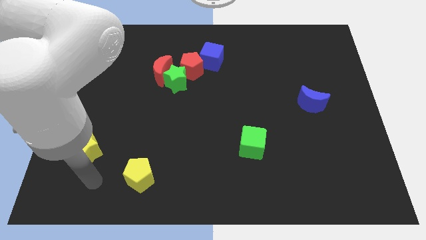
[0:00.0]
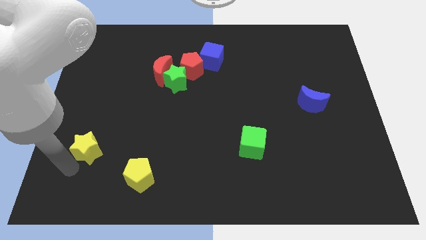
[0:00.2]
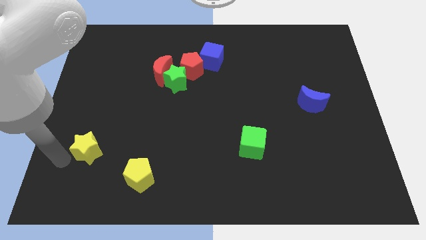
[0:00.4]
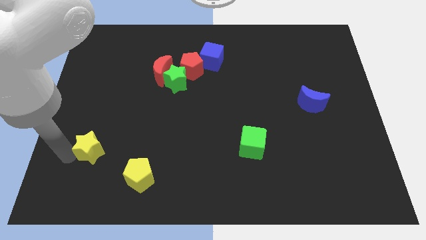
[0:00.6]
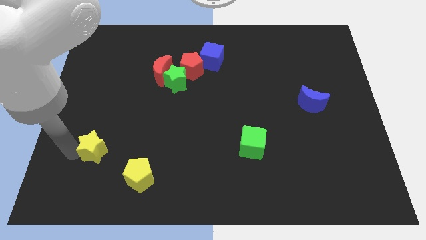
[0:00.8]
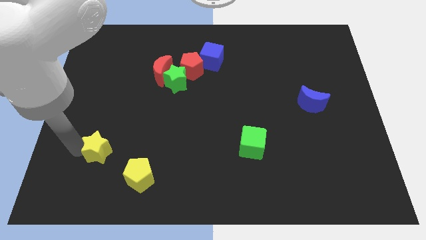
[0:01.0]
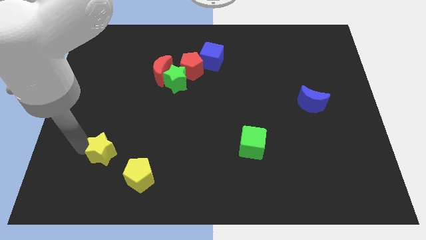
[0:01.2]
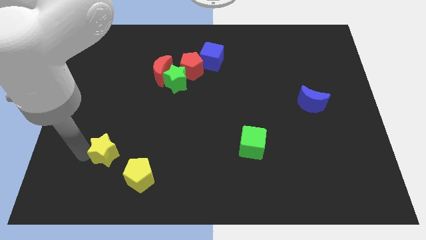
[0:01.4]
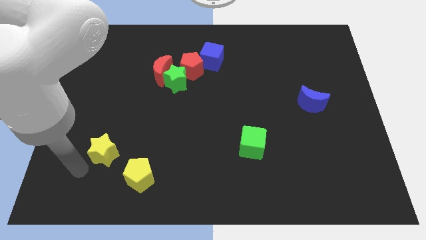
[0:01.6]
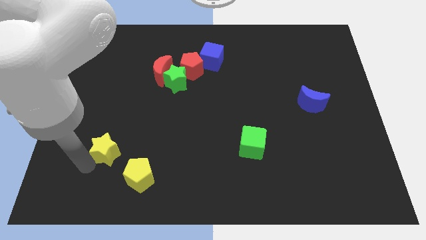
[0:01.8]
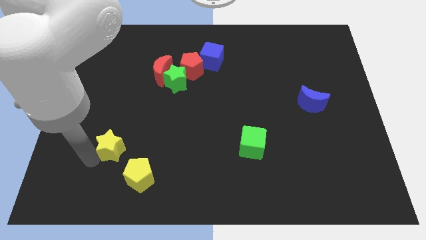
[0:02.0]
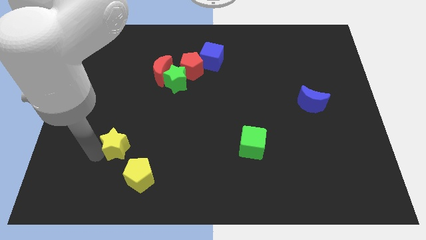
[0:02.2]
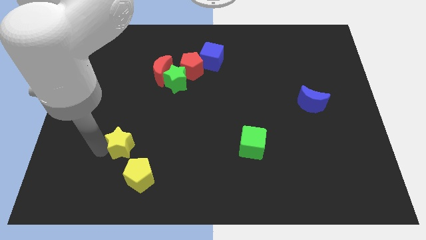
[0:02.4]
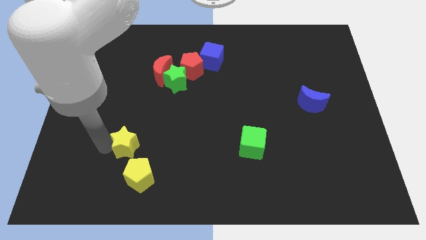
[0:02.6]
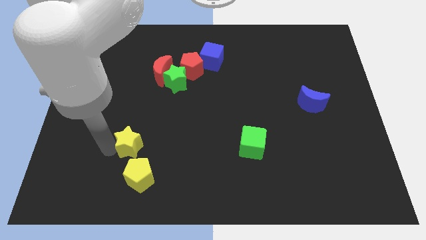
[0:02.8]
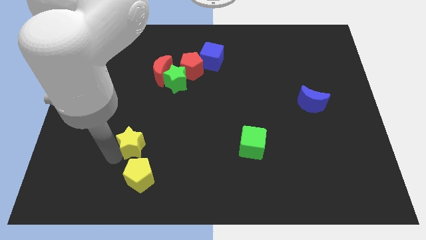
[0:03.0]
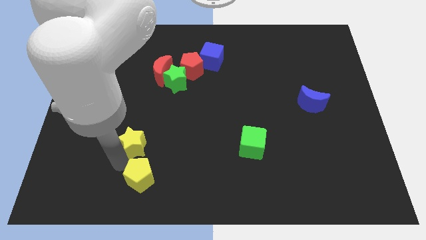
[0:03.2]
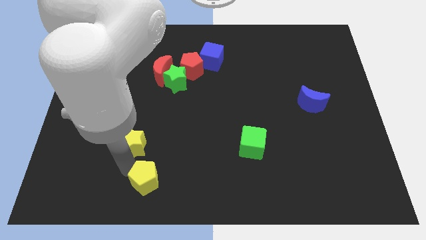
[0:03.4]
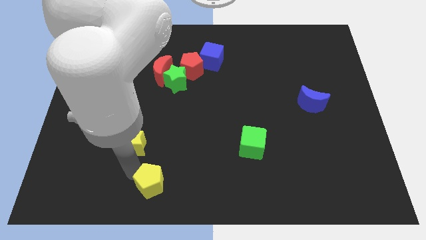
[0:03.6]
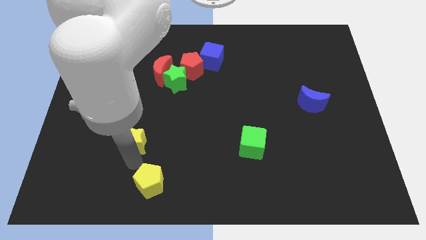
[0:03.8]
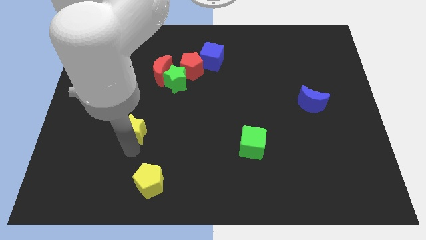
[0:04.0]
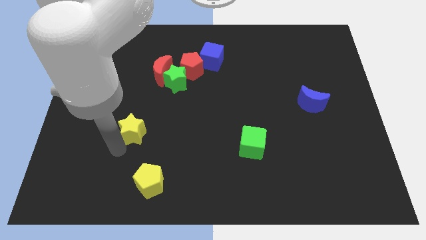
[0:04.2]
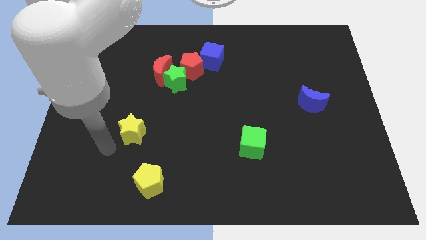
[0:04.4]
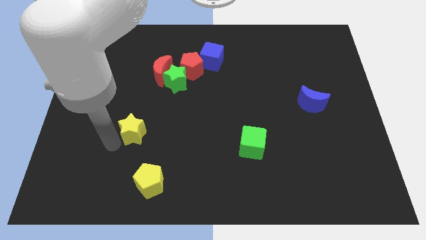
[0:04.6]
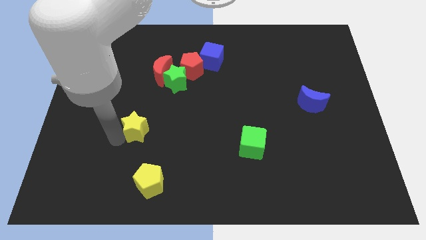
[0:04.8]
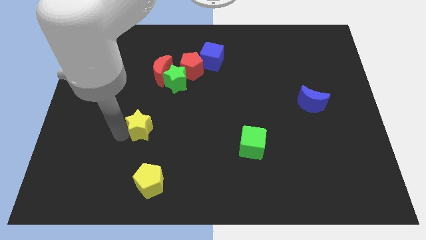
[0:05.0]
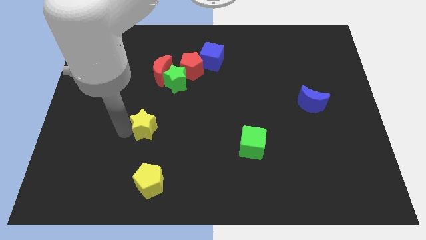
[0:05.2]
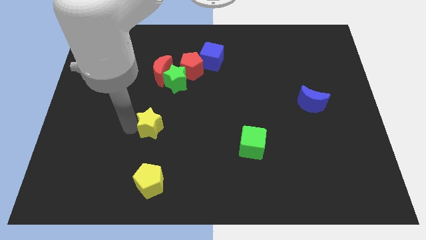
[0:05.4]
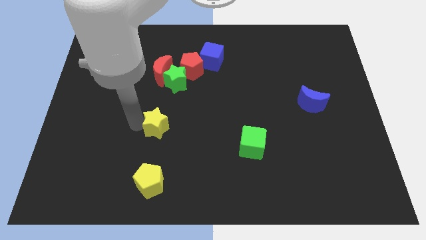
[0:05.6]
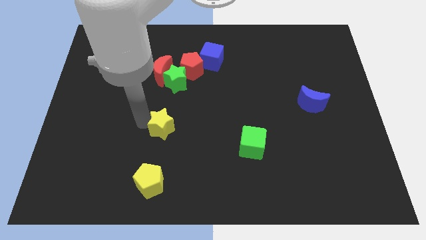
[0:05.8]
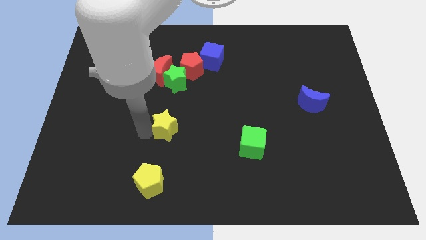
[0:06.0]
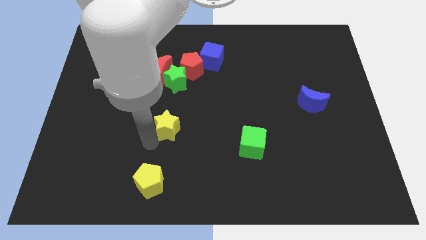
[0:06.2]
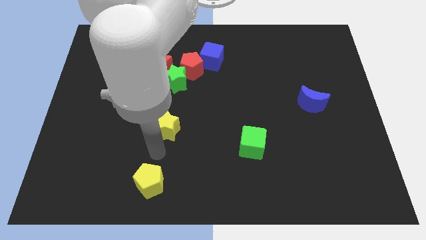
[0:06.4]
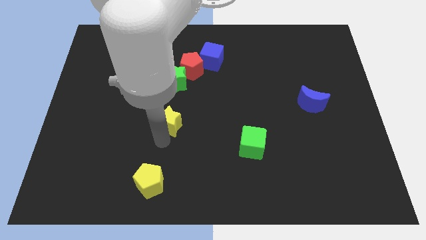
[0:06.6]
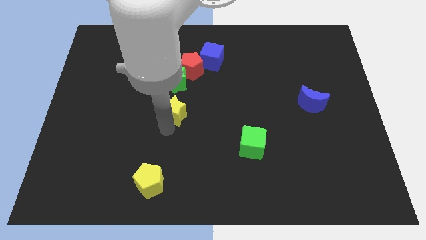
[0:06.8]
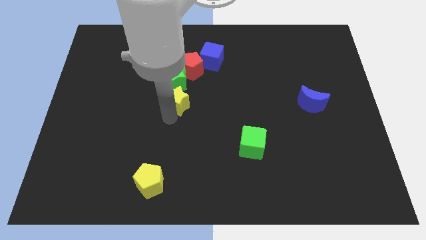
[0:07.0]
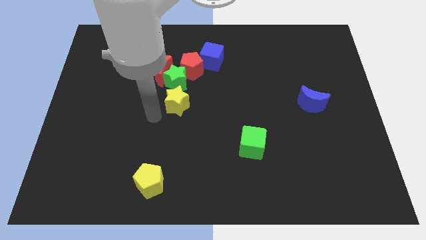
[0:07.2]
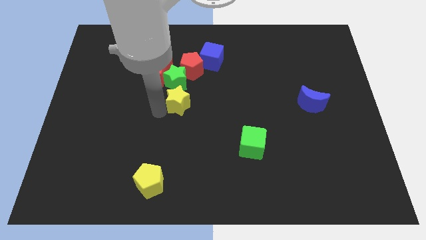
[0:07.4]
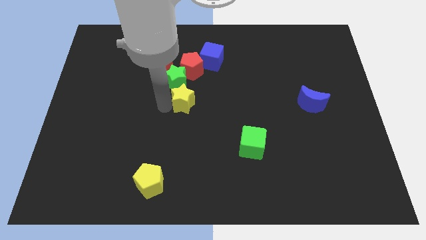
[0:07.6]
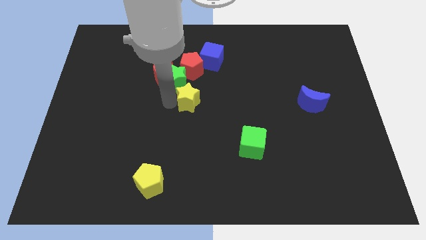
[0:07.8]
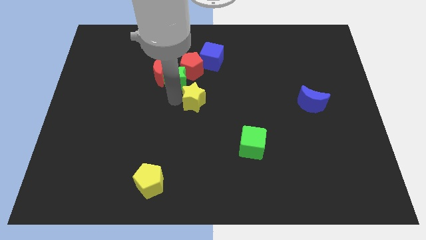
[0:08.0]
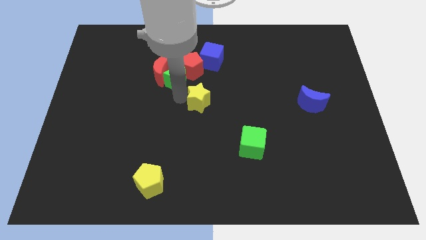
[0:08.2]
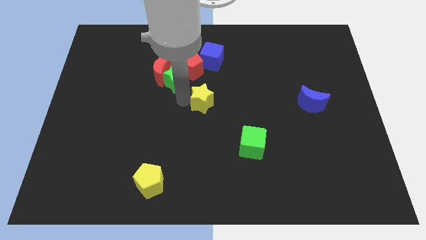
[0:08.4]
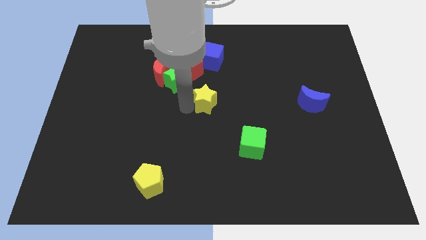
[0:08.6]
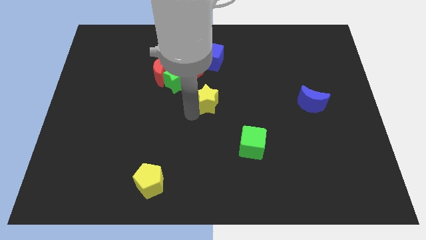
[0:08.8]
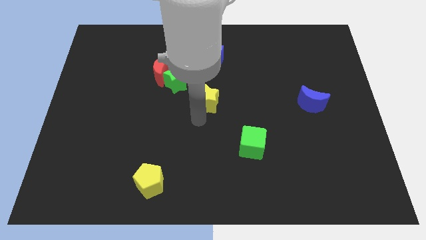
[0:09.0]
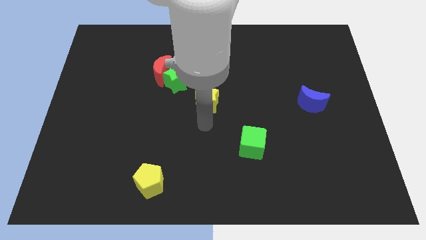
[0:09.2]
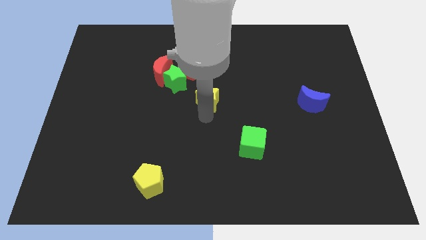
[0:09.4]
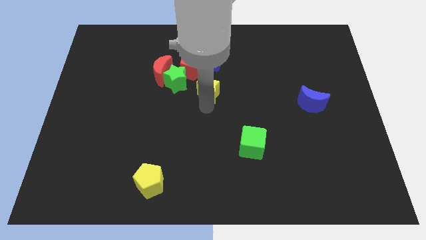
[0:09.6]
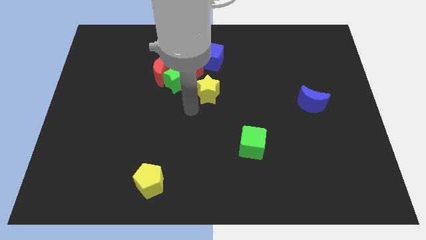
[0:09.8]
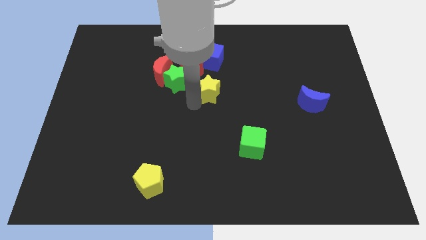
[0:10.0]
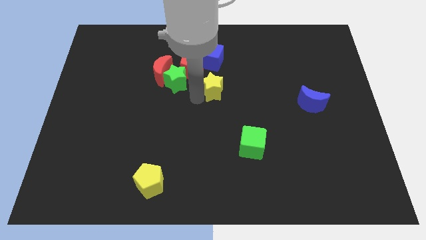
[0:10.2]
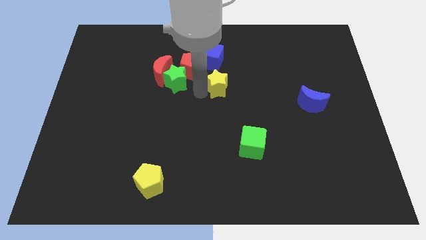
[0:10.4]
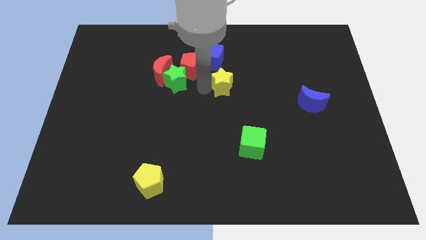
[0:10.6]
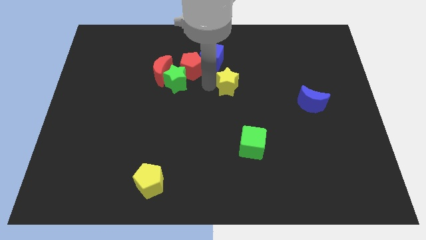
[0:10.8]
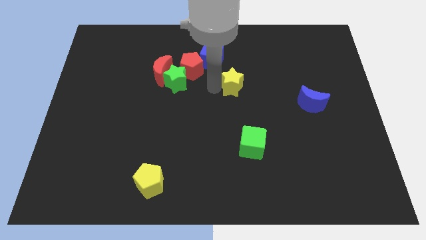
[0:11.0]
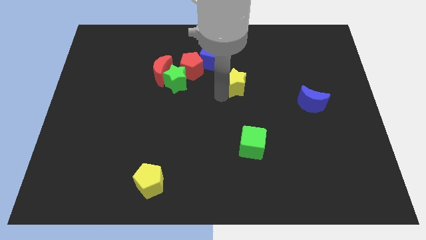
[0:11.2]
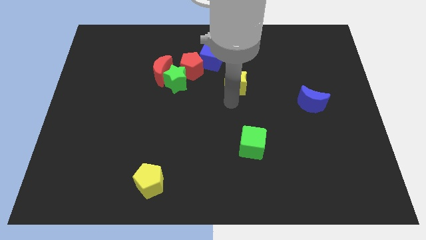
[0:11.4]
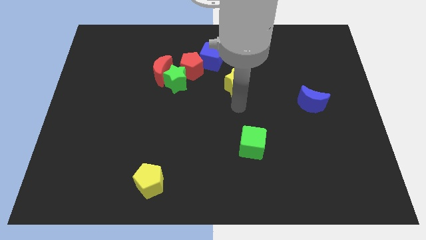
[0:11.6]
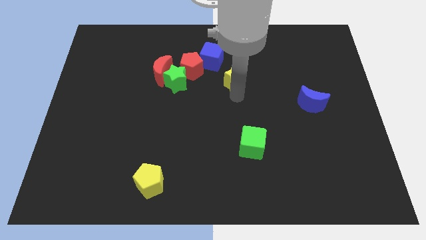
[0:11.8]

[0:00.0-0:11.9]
slide the yellow star just right of the red pentagon
